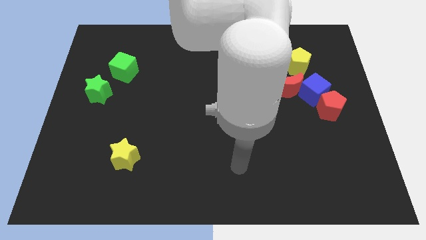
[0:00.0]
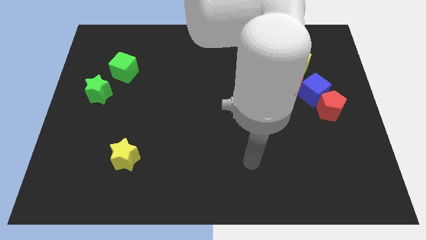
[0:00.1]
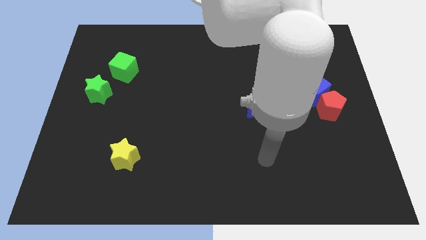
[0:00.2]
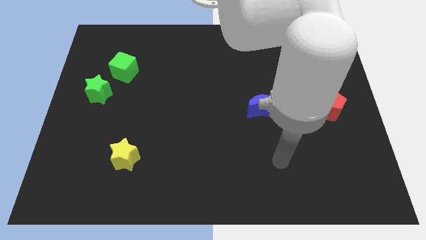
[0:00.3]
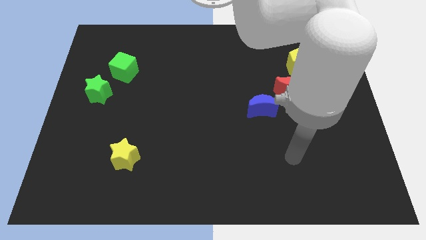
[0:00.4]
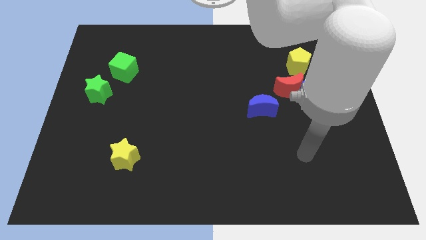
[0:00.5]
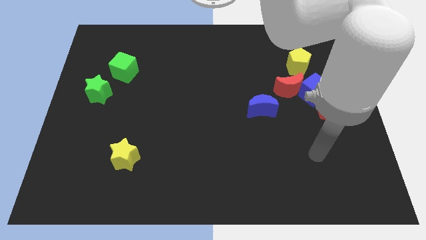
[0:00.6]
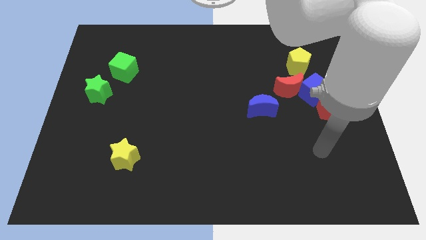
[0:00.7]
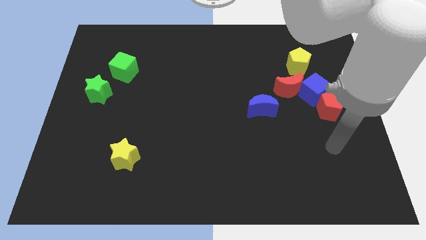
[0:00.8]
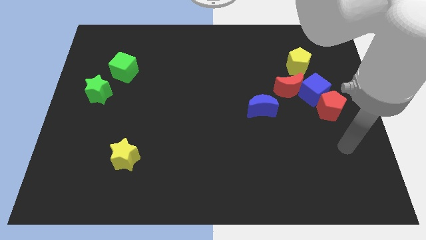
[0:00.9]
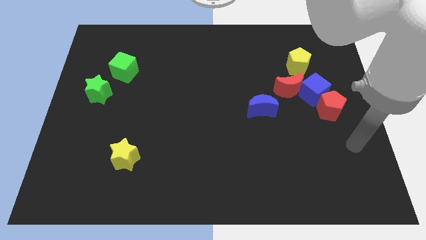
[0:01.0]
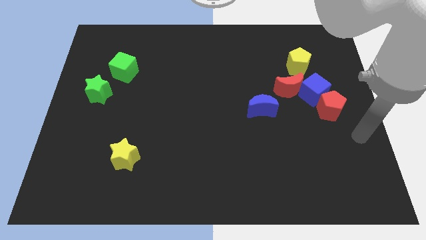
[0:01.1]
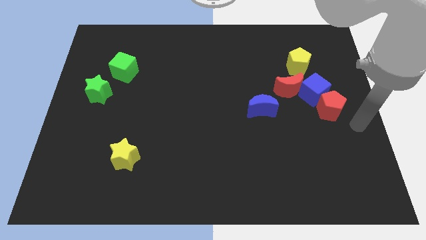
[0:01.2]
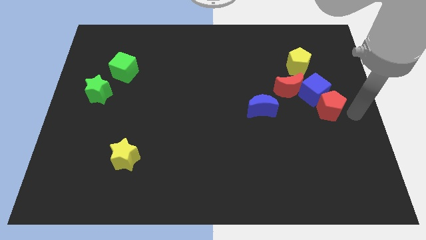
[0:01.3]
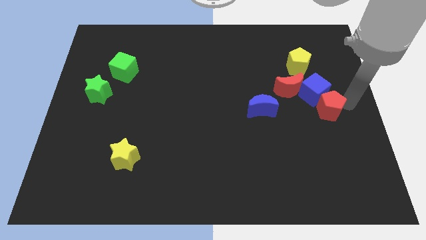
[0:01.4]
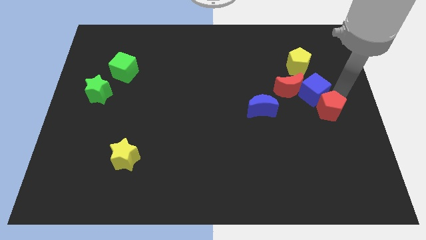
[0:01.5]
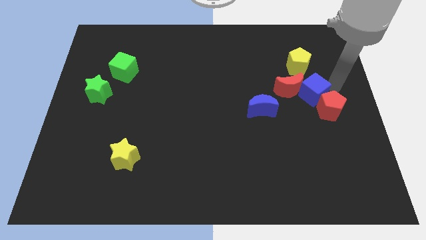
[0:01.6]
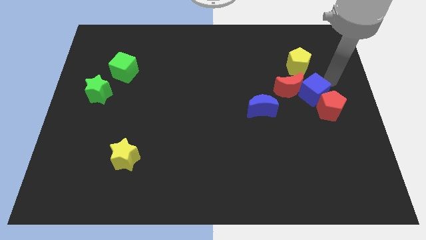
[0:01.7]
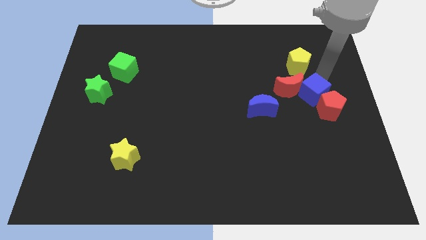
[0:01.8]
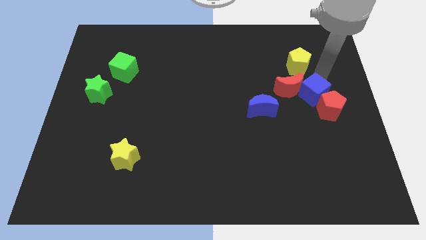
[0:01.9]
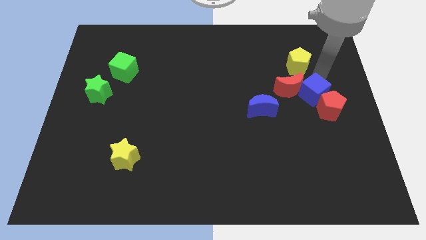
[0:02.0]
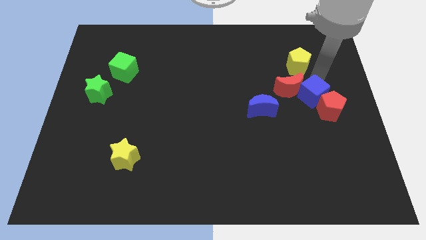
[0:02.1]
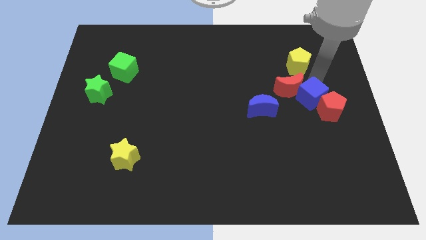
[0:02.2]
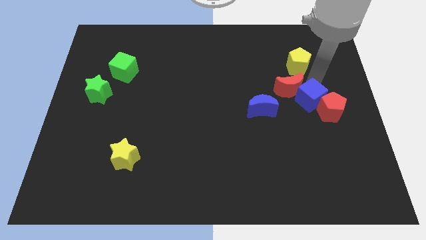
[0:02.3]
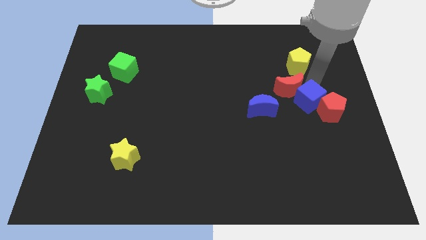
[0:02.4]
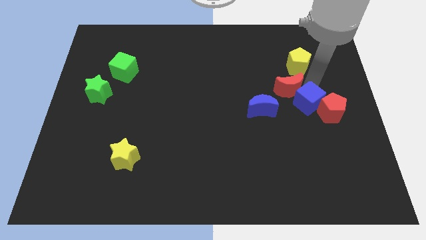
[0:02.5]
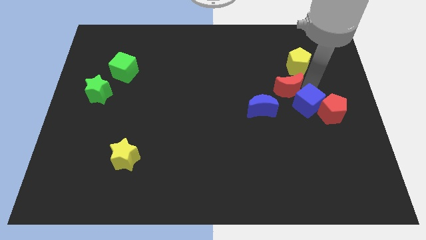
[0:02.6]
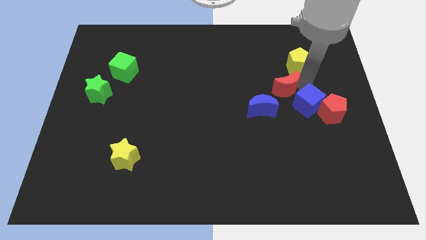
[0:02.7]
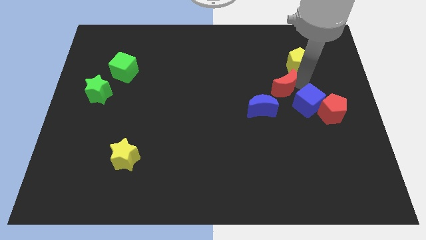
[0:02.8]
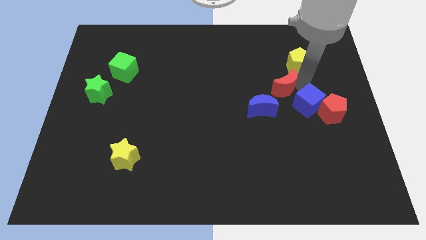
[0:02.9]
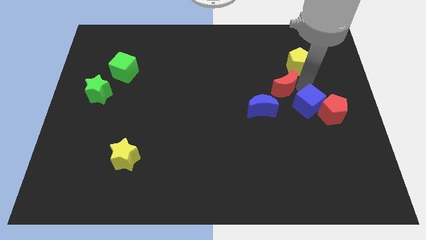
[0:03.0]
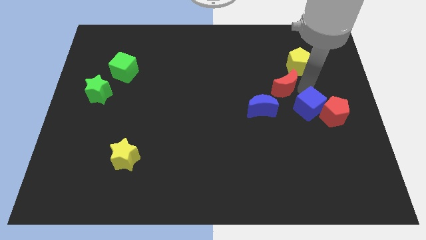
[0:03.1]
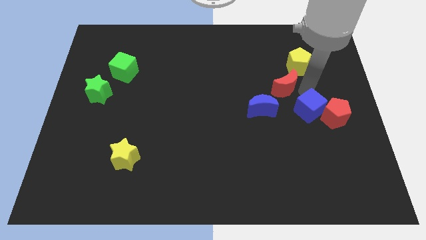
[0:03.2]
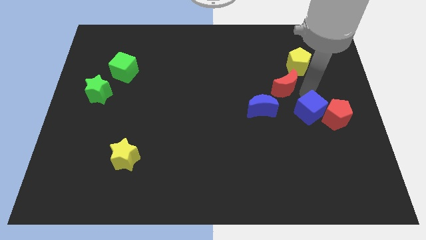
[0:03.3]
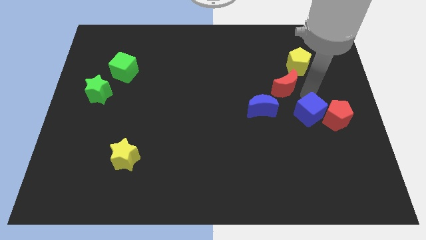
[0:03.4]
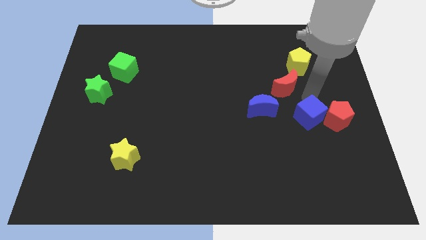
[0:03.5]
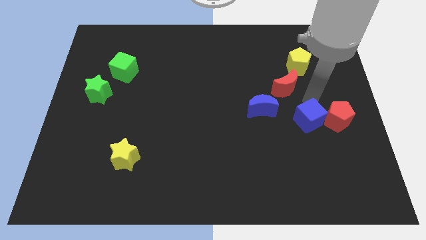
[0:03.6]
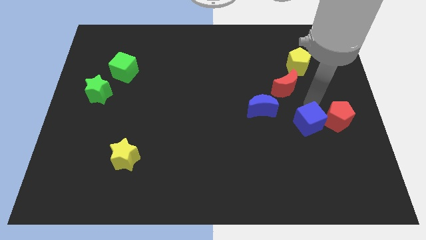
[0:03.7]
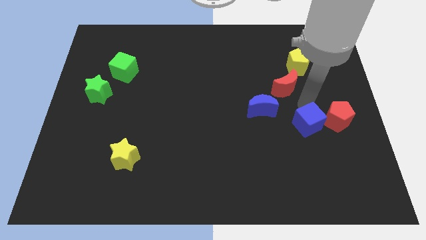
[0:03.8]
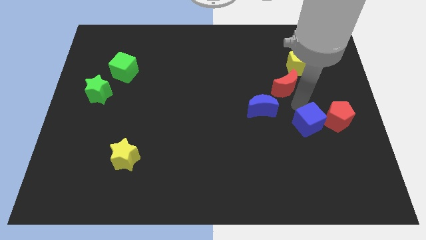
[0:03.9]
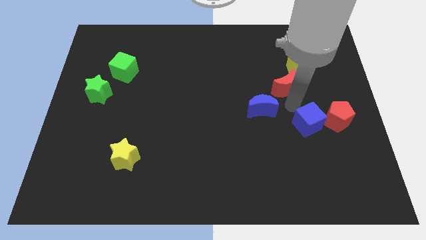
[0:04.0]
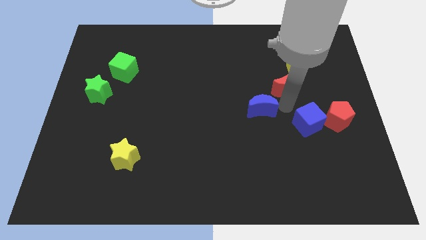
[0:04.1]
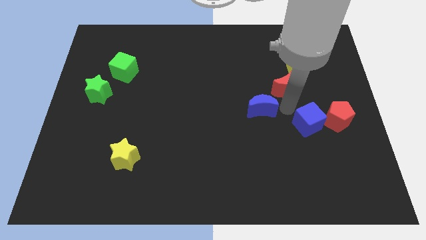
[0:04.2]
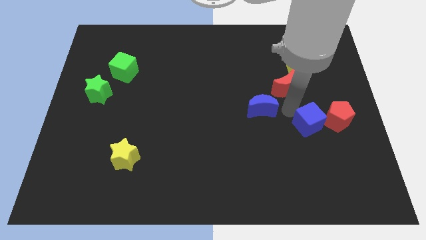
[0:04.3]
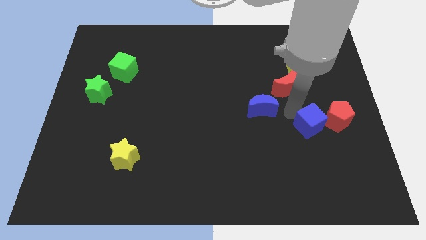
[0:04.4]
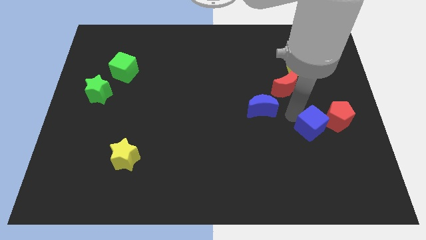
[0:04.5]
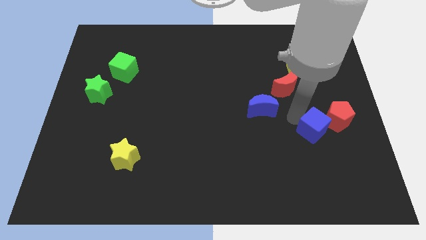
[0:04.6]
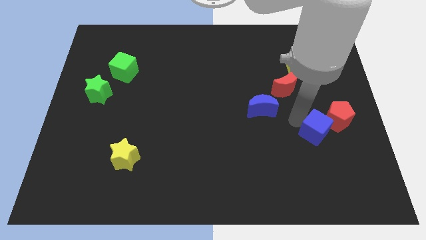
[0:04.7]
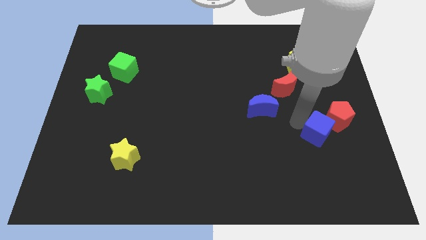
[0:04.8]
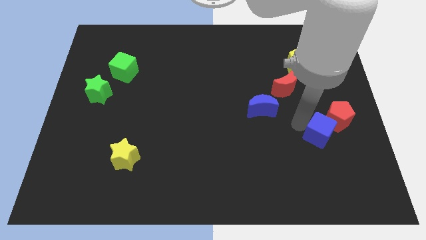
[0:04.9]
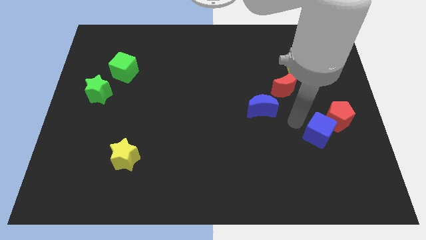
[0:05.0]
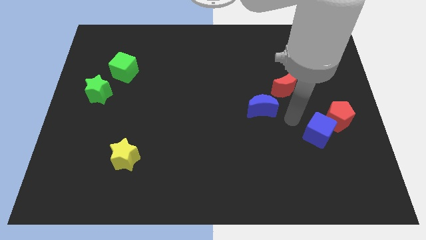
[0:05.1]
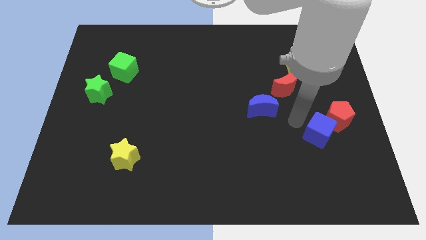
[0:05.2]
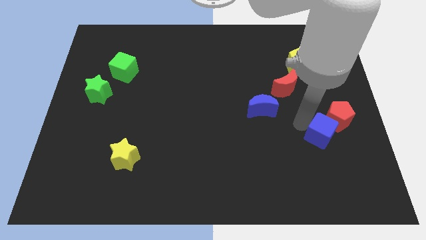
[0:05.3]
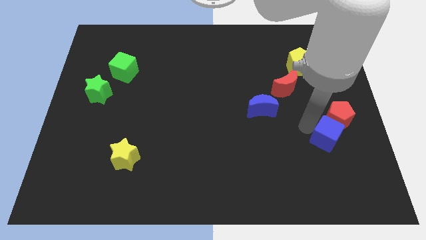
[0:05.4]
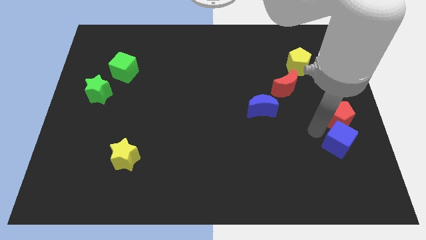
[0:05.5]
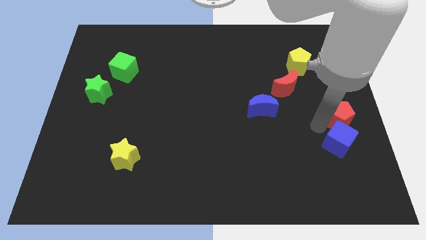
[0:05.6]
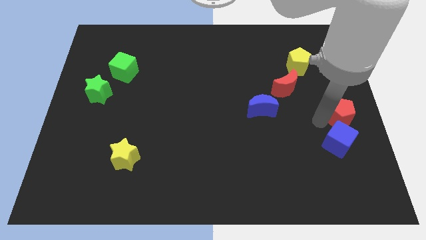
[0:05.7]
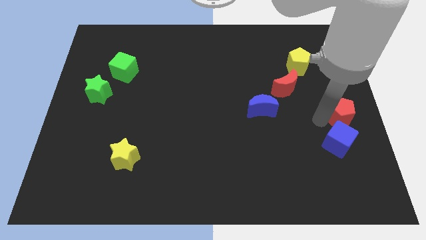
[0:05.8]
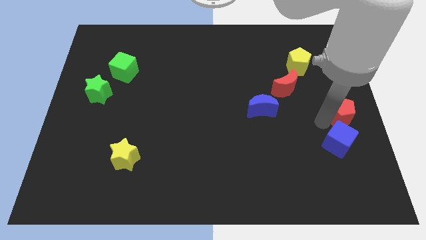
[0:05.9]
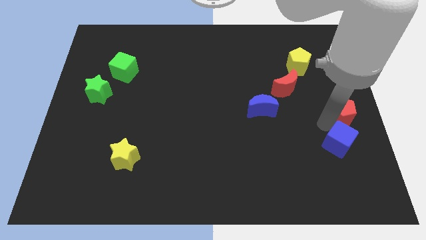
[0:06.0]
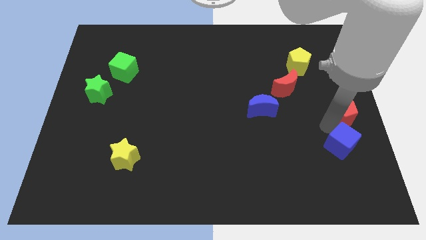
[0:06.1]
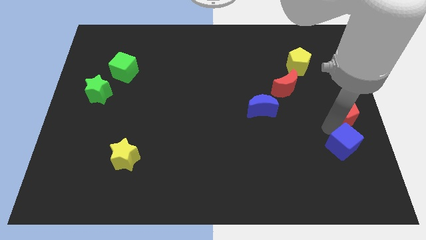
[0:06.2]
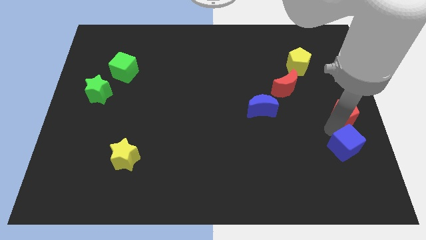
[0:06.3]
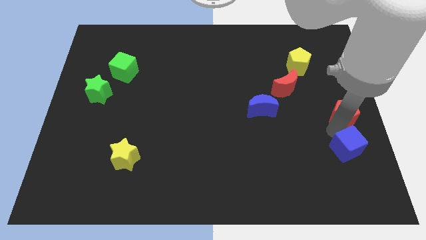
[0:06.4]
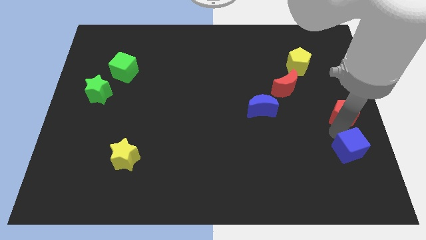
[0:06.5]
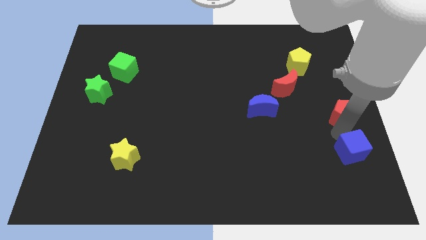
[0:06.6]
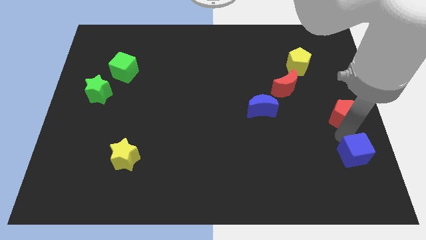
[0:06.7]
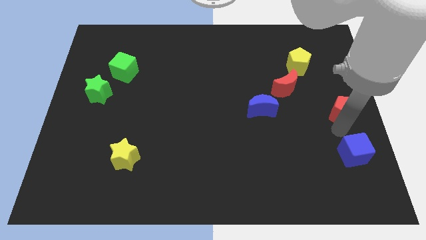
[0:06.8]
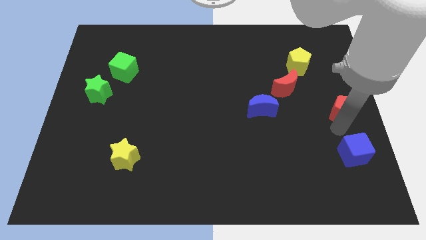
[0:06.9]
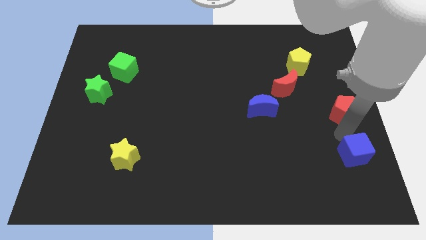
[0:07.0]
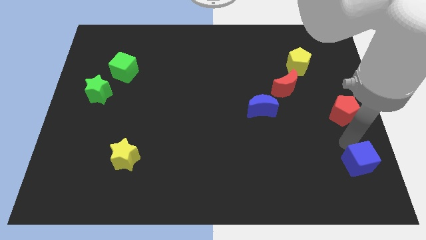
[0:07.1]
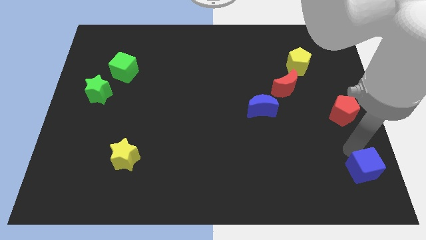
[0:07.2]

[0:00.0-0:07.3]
push the blue cube to the bottom right corner
